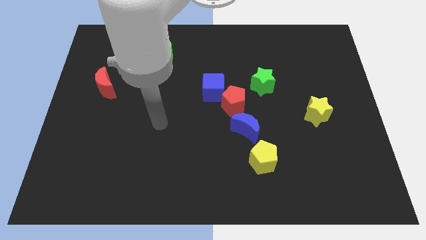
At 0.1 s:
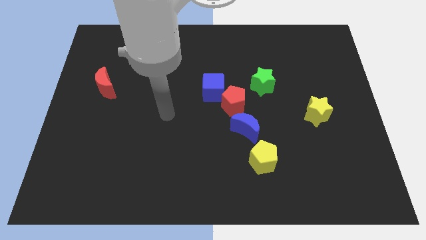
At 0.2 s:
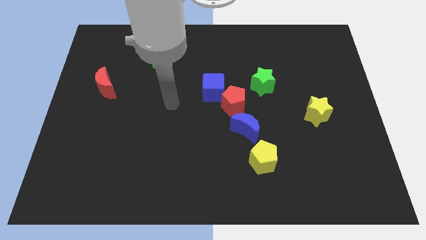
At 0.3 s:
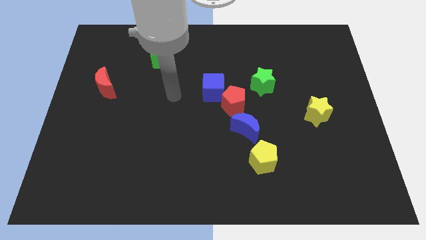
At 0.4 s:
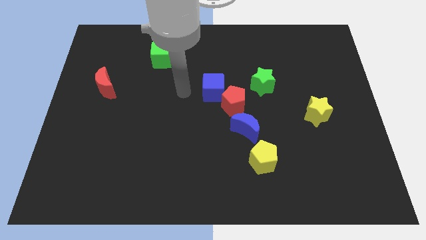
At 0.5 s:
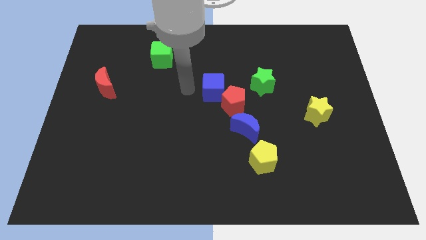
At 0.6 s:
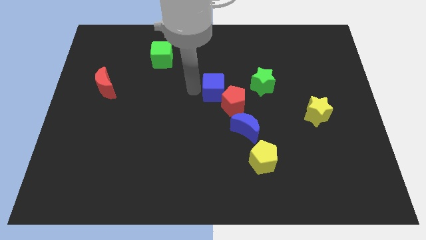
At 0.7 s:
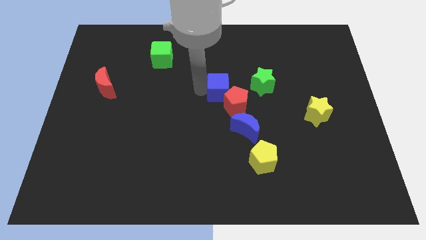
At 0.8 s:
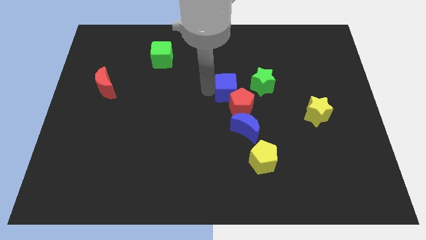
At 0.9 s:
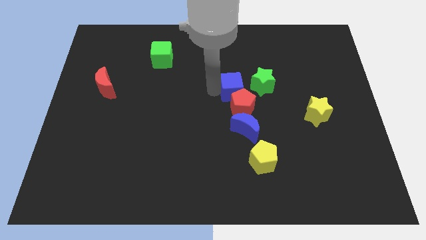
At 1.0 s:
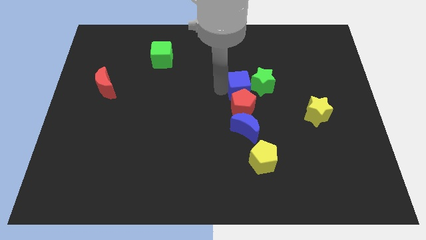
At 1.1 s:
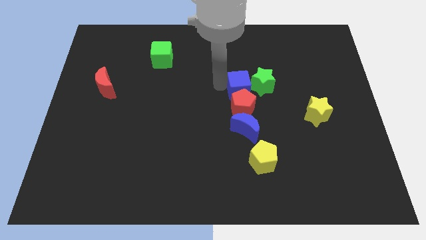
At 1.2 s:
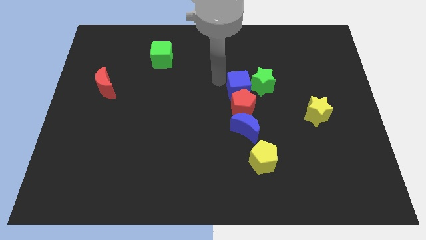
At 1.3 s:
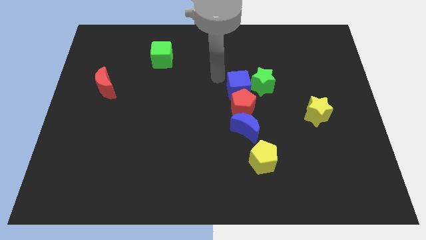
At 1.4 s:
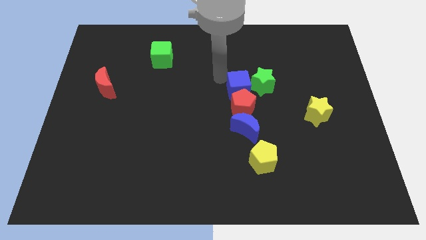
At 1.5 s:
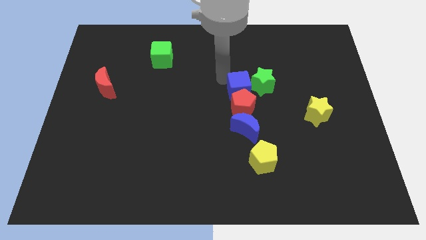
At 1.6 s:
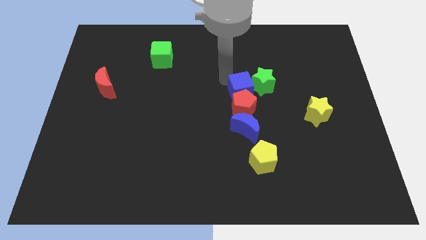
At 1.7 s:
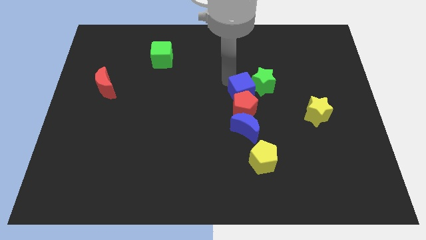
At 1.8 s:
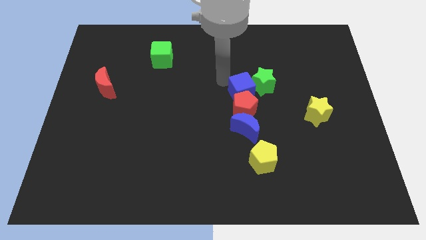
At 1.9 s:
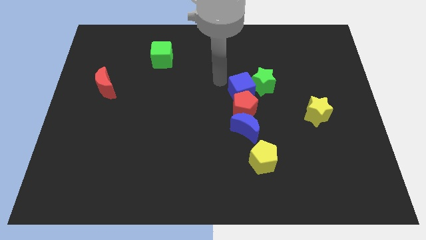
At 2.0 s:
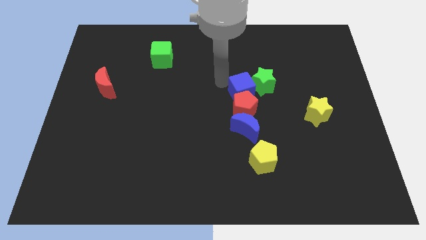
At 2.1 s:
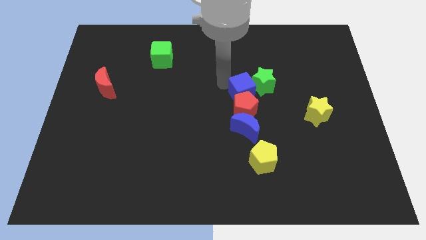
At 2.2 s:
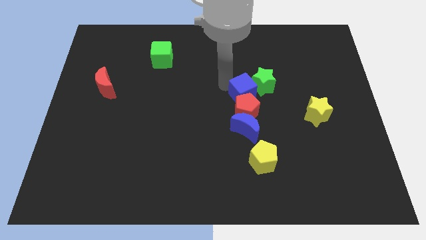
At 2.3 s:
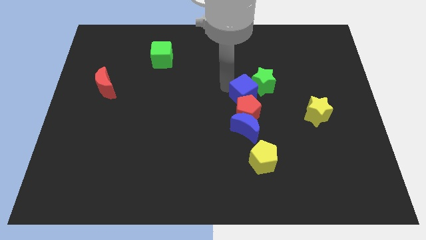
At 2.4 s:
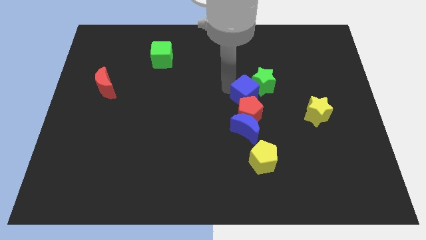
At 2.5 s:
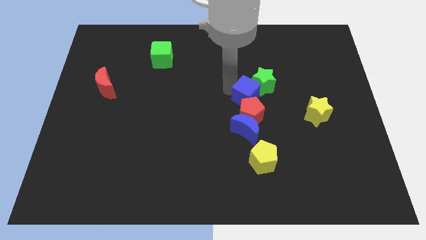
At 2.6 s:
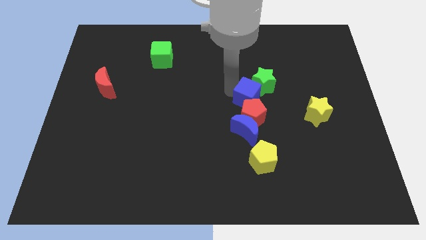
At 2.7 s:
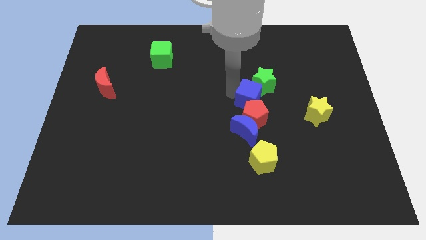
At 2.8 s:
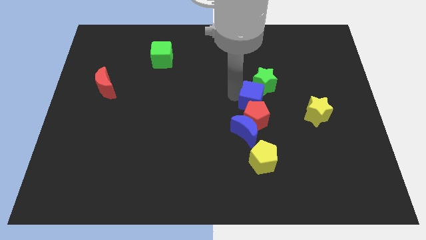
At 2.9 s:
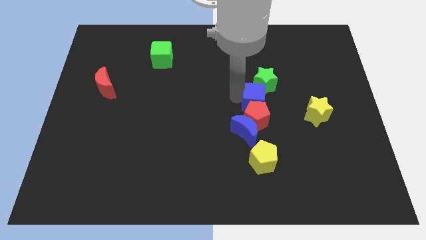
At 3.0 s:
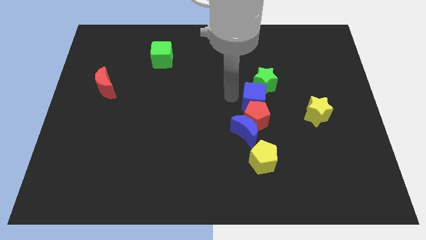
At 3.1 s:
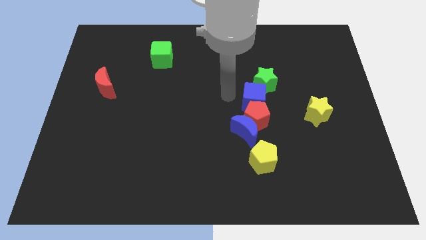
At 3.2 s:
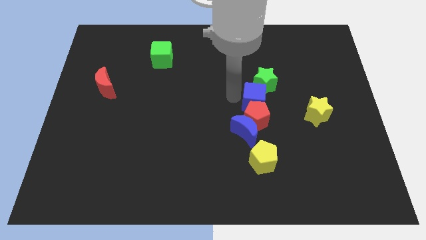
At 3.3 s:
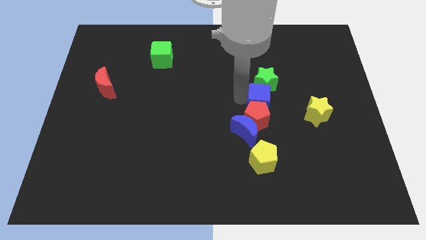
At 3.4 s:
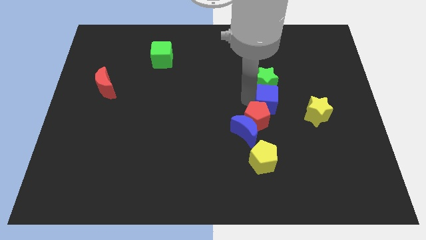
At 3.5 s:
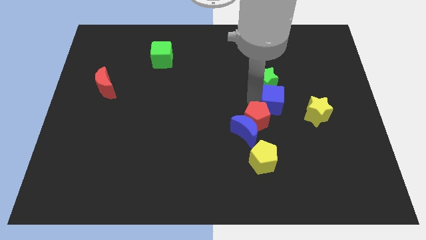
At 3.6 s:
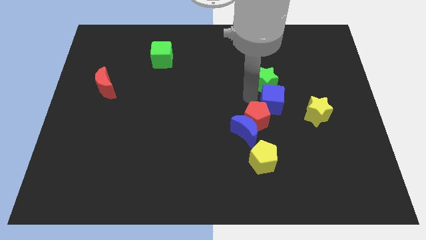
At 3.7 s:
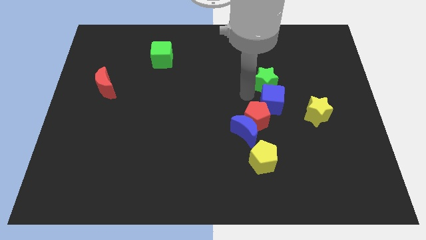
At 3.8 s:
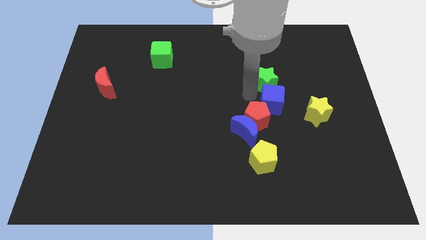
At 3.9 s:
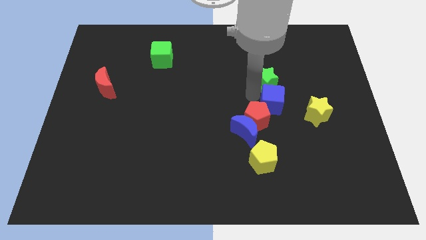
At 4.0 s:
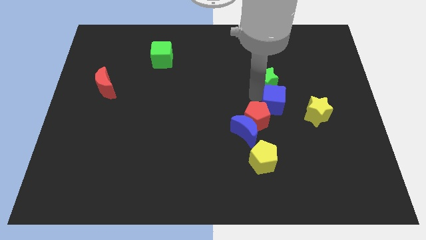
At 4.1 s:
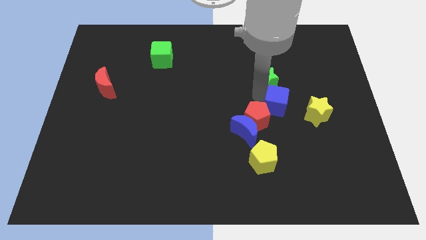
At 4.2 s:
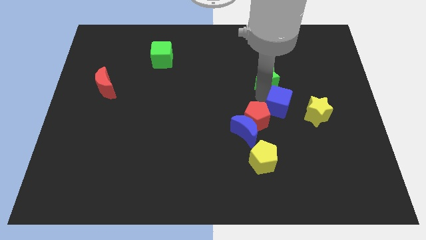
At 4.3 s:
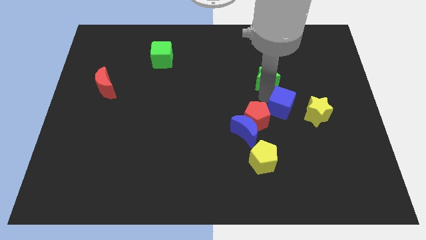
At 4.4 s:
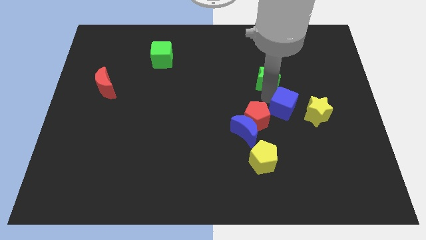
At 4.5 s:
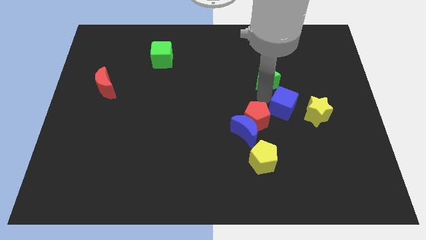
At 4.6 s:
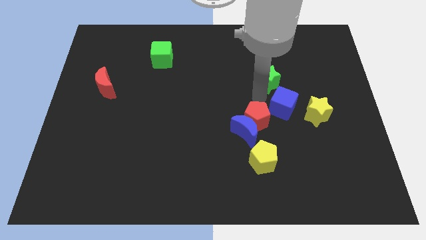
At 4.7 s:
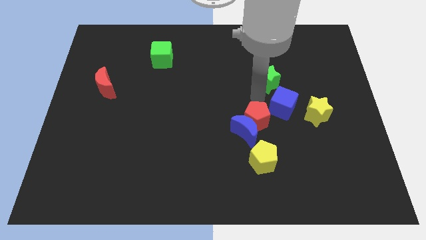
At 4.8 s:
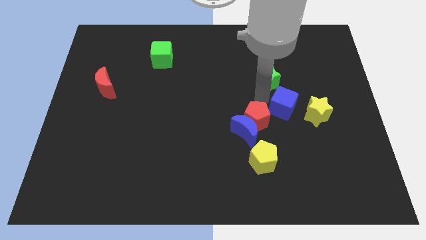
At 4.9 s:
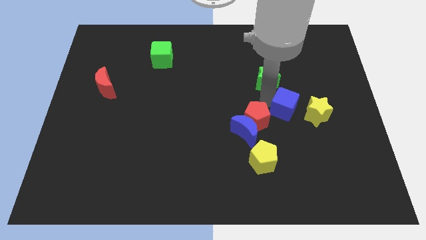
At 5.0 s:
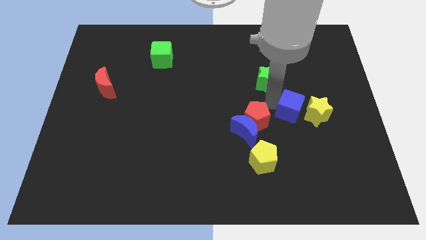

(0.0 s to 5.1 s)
push the blue cube close to the yellow star

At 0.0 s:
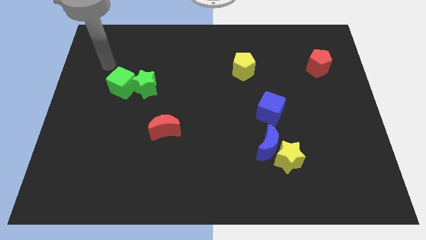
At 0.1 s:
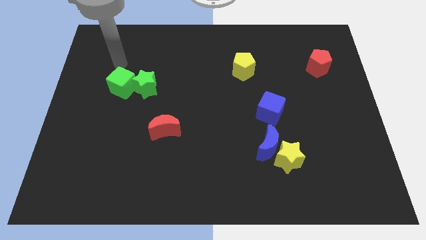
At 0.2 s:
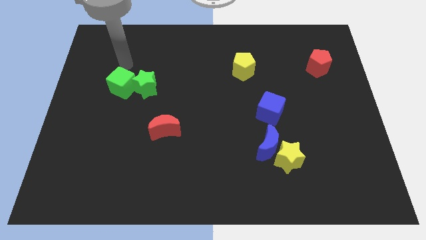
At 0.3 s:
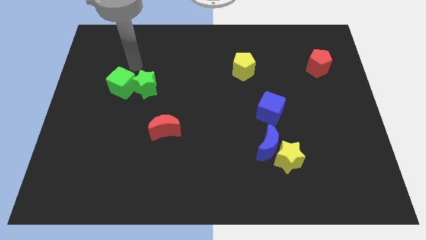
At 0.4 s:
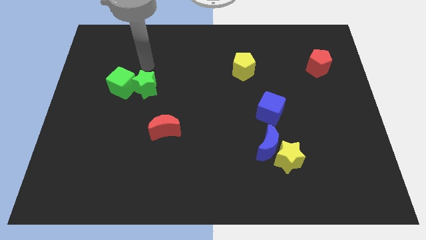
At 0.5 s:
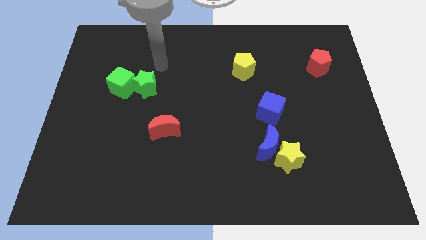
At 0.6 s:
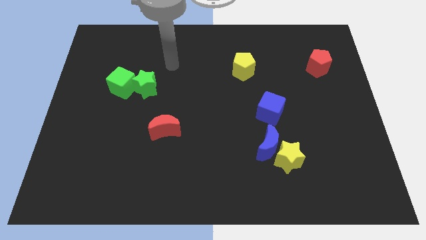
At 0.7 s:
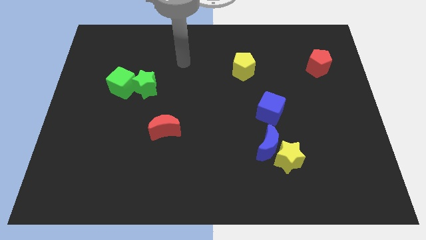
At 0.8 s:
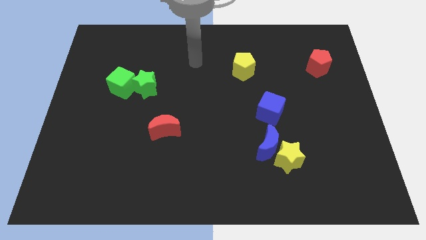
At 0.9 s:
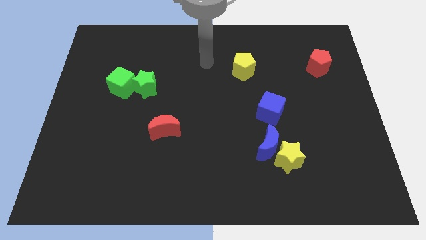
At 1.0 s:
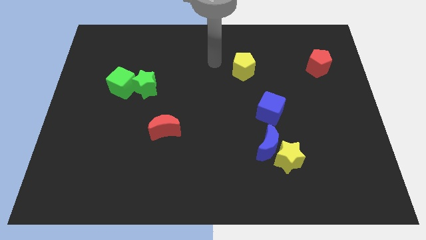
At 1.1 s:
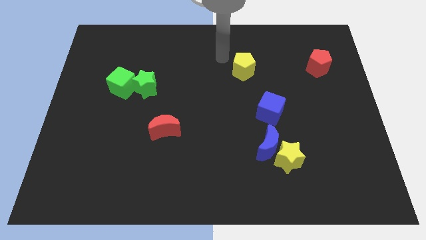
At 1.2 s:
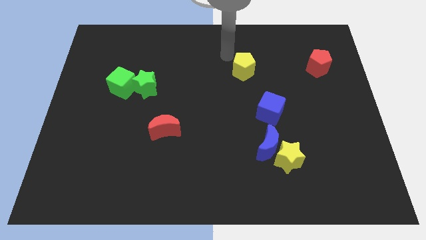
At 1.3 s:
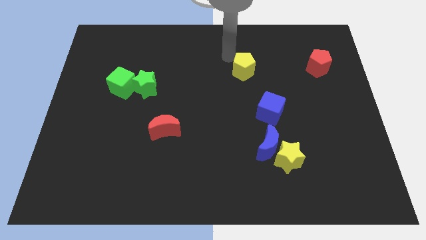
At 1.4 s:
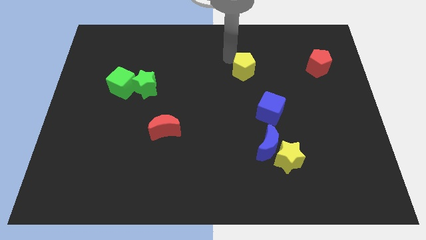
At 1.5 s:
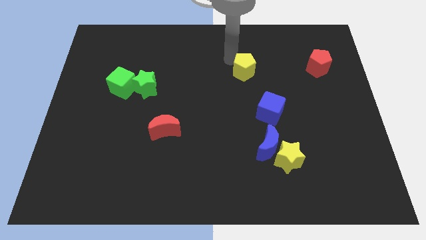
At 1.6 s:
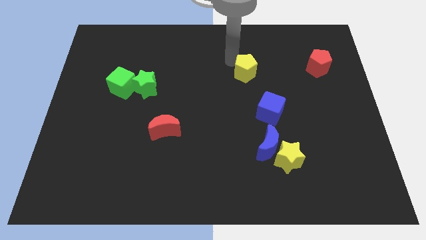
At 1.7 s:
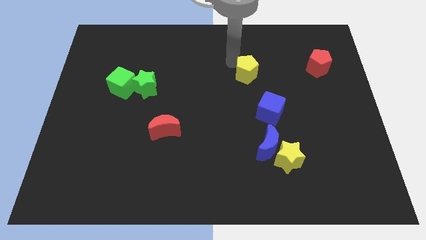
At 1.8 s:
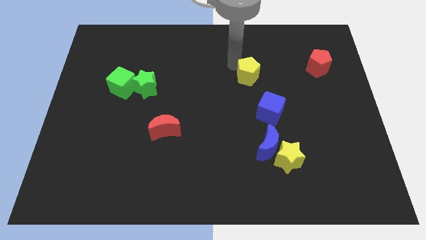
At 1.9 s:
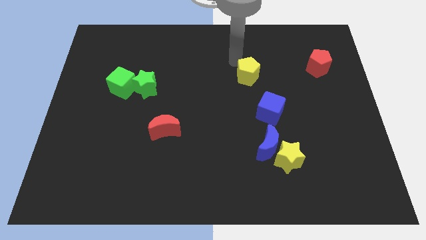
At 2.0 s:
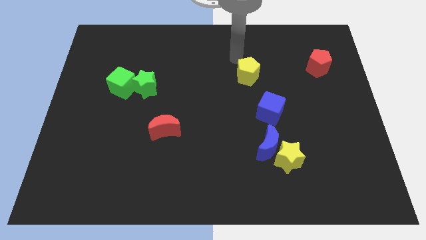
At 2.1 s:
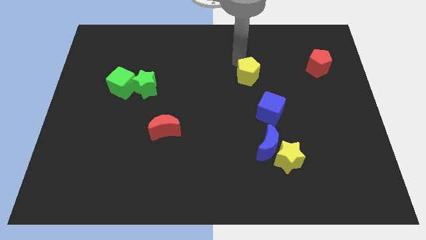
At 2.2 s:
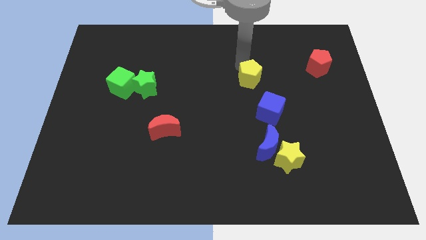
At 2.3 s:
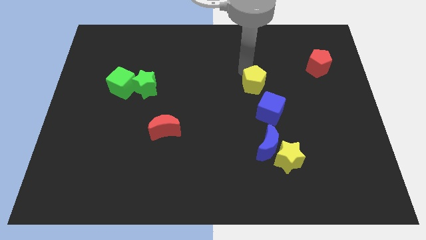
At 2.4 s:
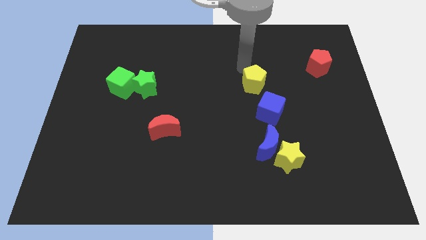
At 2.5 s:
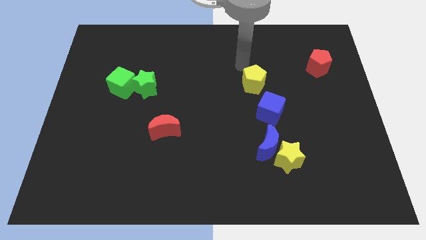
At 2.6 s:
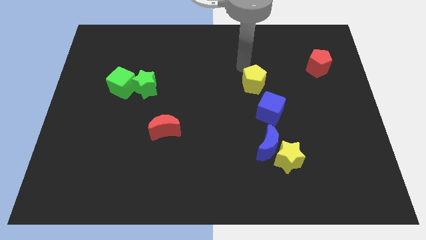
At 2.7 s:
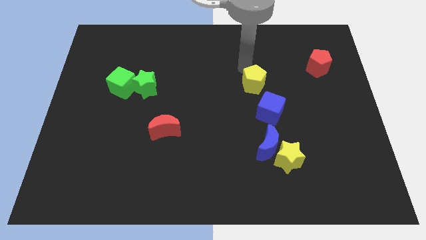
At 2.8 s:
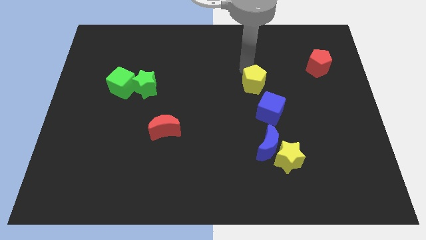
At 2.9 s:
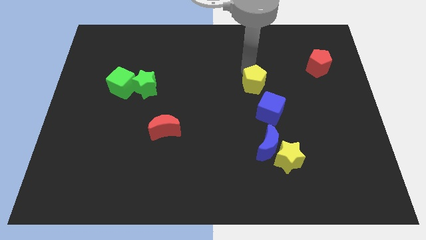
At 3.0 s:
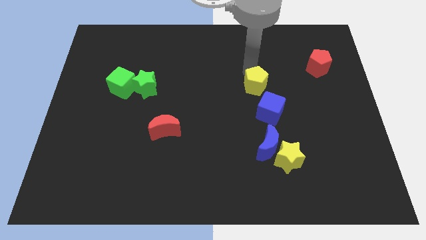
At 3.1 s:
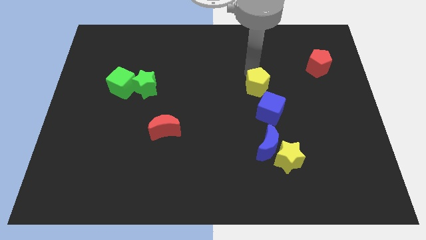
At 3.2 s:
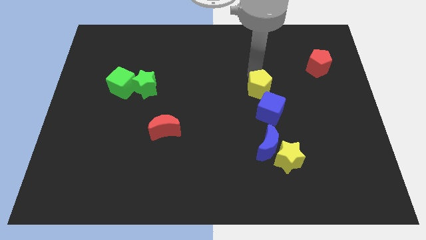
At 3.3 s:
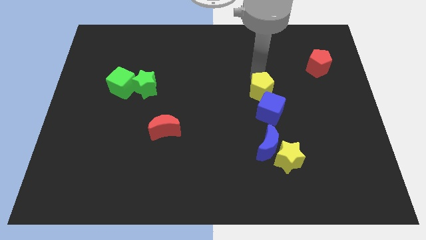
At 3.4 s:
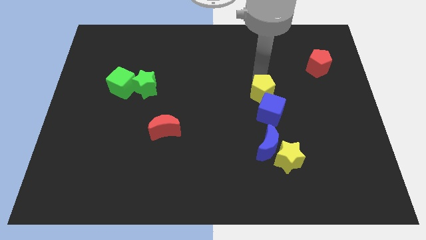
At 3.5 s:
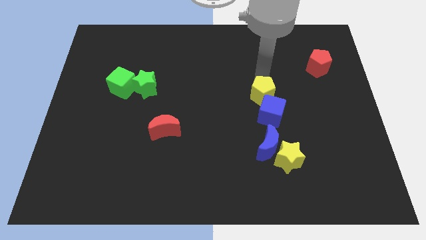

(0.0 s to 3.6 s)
move the yellow pentagon next to the blue cube
